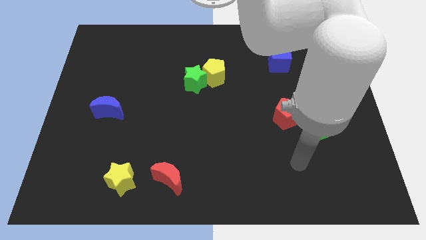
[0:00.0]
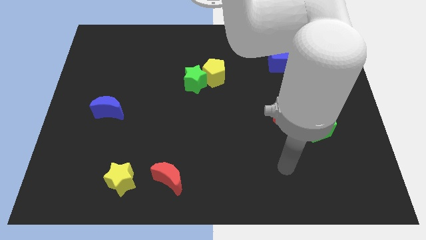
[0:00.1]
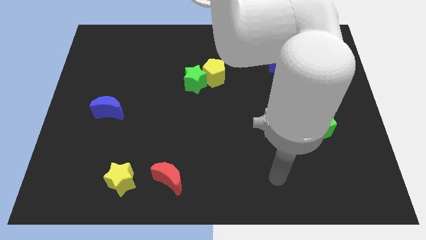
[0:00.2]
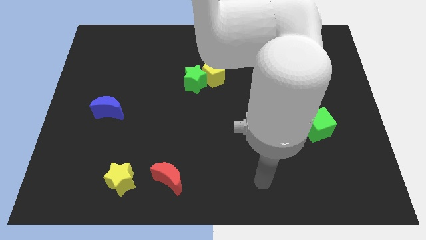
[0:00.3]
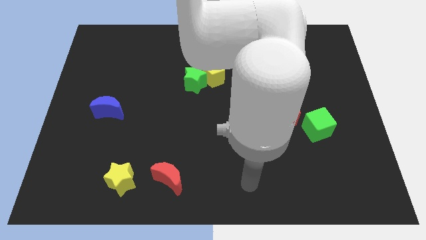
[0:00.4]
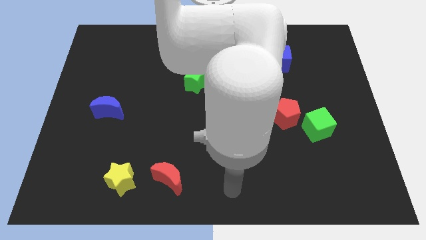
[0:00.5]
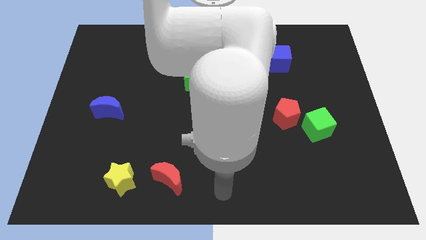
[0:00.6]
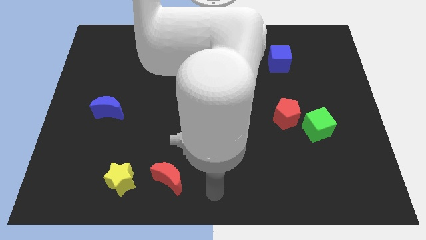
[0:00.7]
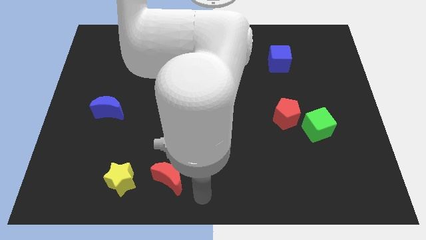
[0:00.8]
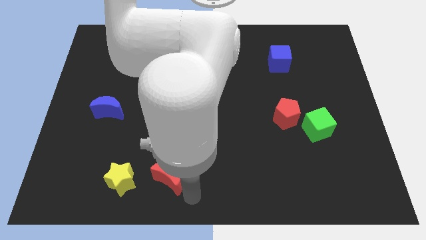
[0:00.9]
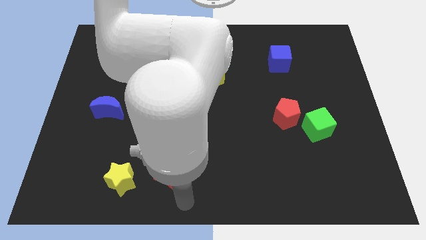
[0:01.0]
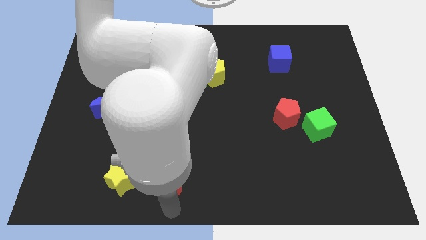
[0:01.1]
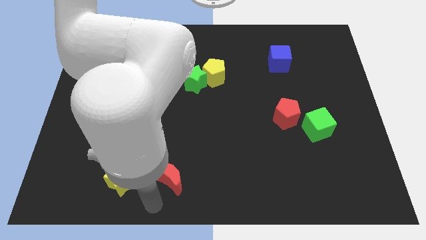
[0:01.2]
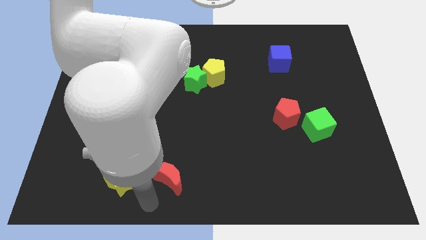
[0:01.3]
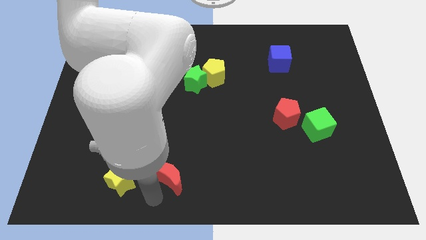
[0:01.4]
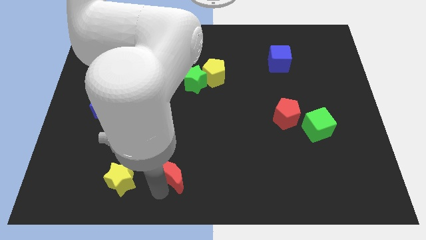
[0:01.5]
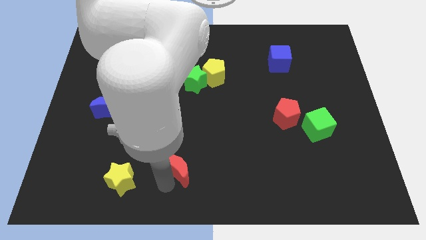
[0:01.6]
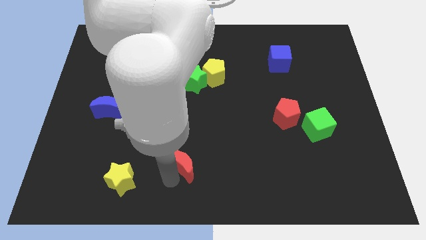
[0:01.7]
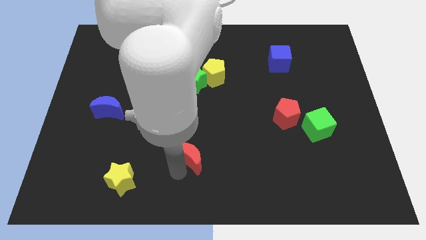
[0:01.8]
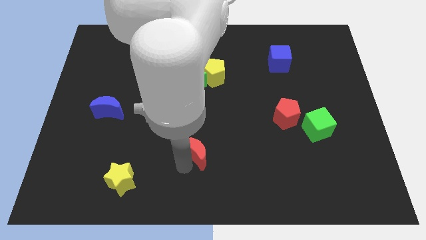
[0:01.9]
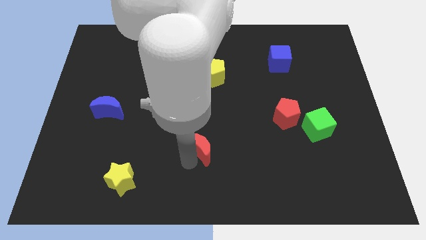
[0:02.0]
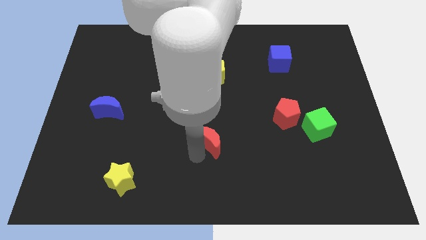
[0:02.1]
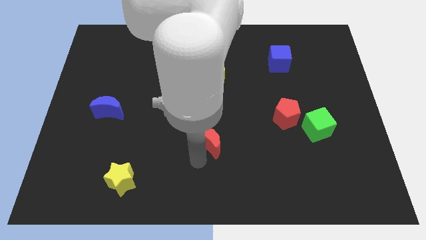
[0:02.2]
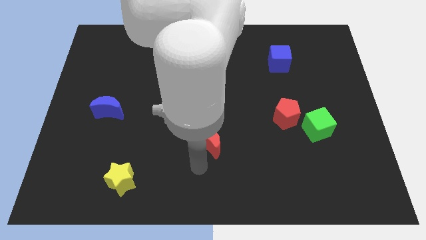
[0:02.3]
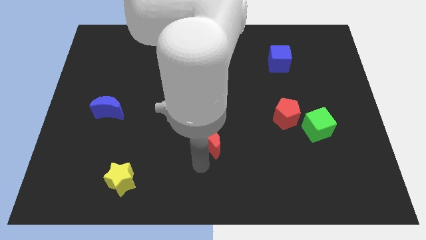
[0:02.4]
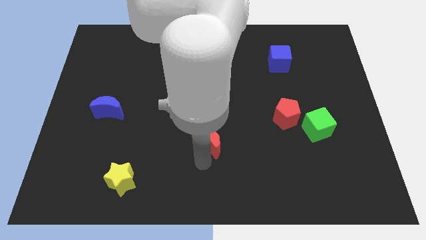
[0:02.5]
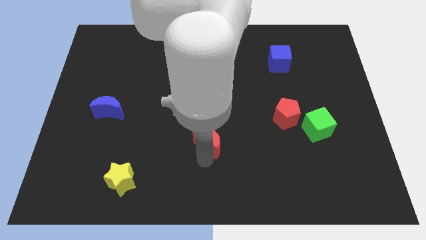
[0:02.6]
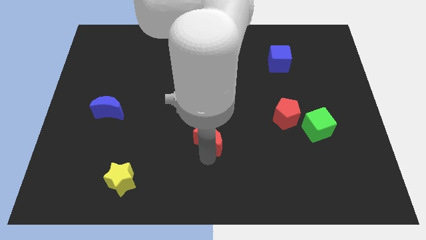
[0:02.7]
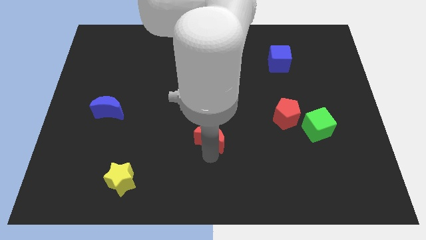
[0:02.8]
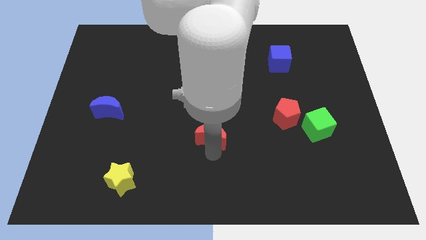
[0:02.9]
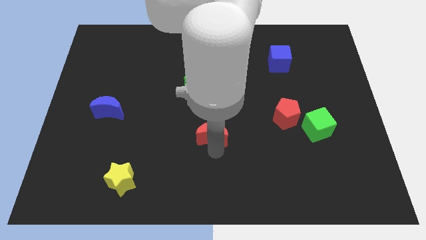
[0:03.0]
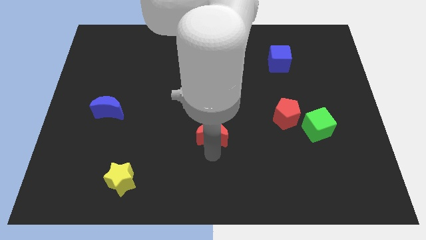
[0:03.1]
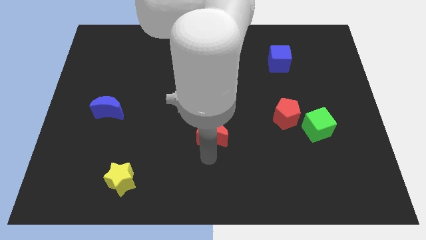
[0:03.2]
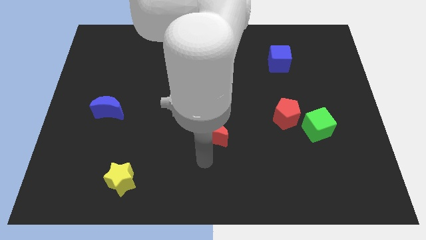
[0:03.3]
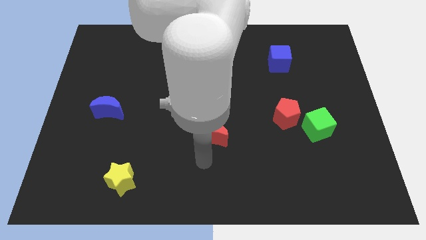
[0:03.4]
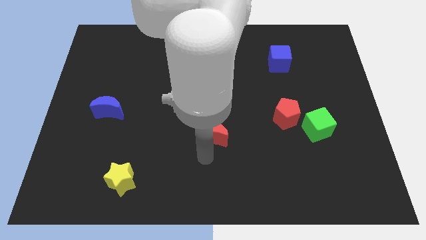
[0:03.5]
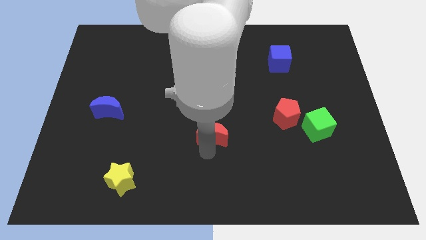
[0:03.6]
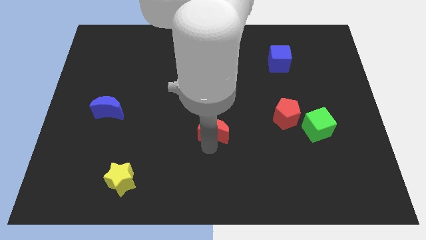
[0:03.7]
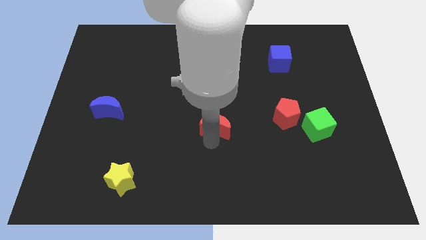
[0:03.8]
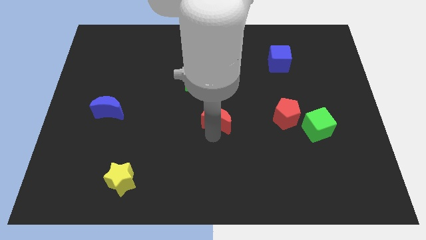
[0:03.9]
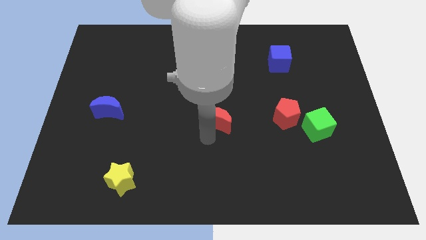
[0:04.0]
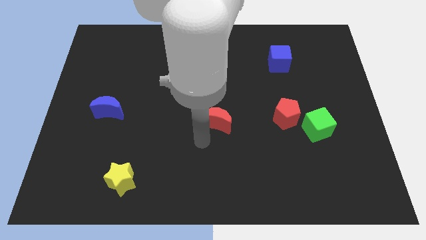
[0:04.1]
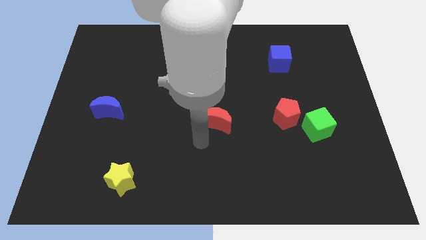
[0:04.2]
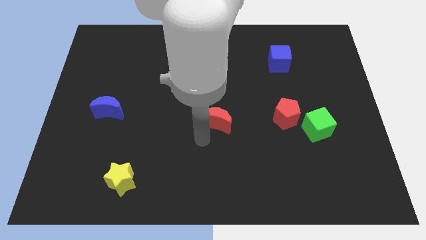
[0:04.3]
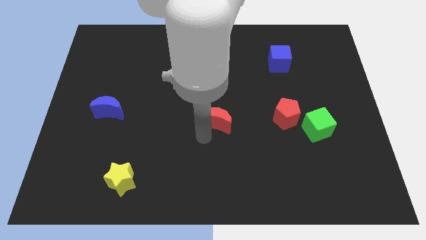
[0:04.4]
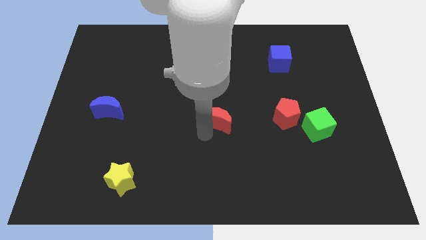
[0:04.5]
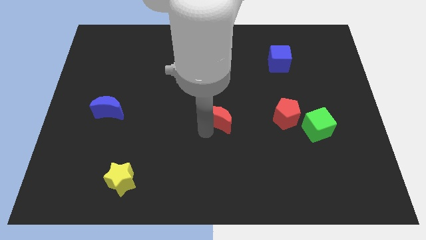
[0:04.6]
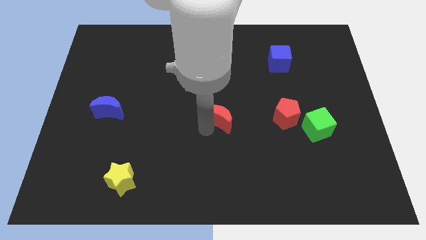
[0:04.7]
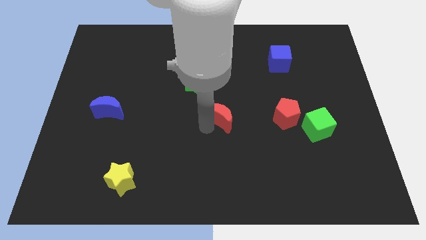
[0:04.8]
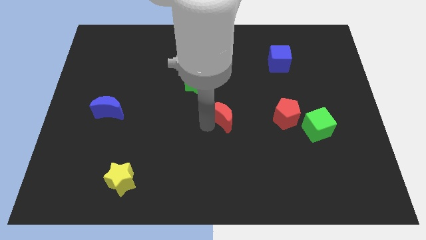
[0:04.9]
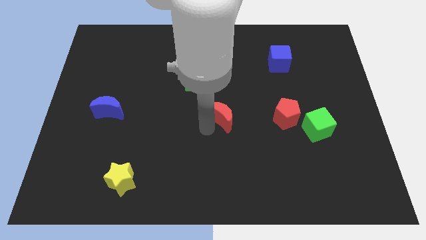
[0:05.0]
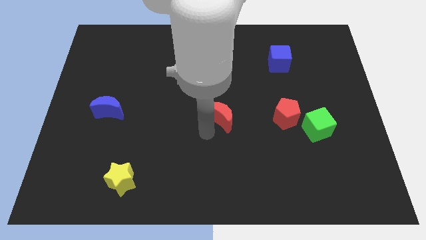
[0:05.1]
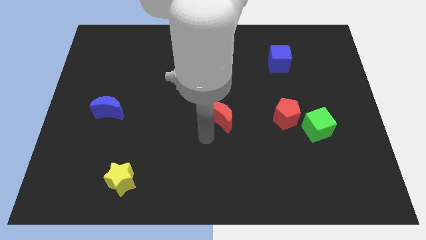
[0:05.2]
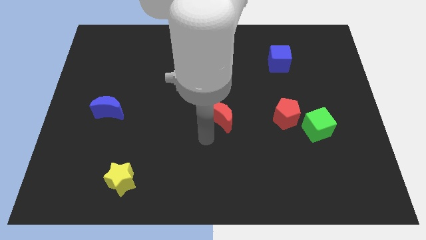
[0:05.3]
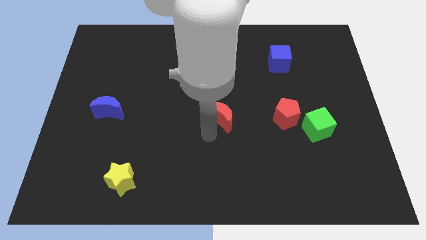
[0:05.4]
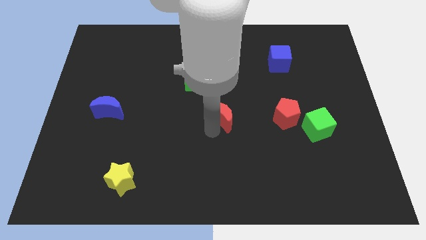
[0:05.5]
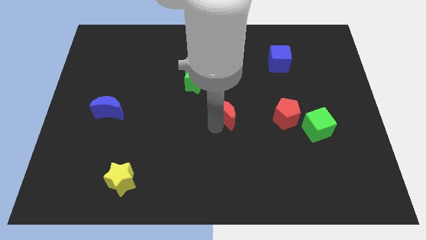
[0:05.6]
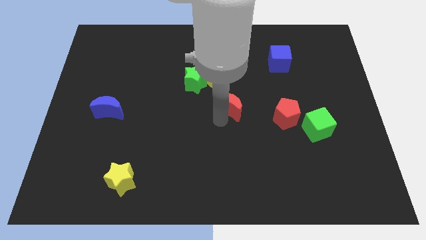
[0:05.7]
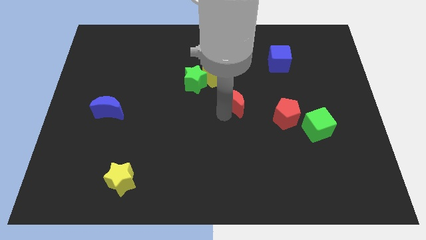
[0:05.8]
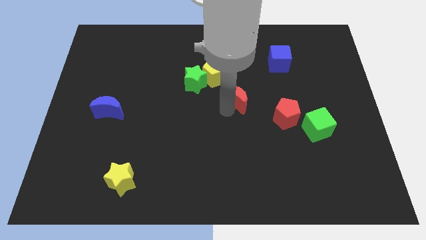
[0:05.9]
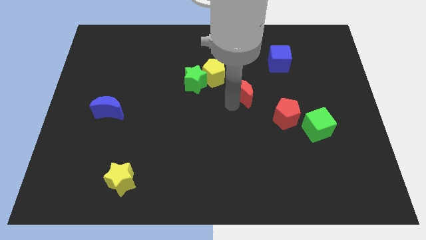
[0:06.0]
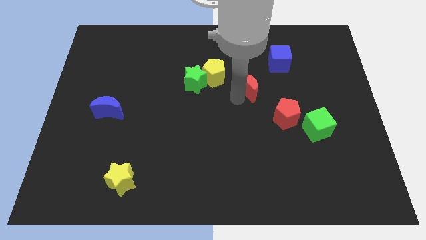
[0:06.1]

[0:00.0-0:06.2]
put the red moon diagonally down and to the left of the blue cube

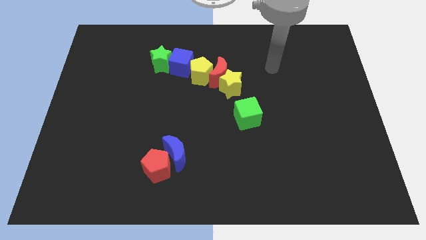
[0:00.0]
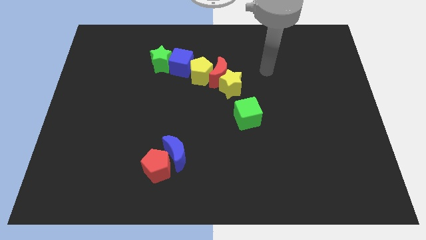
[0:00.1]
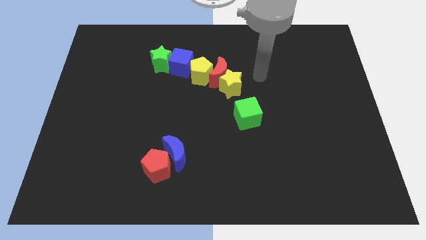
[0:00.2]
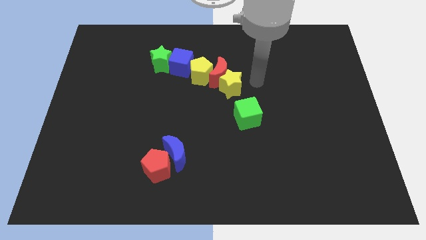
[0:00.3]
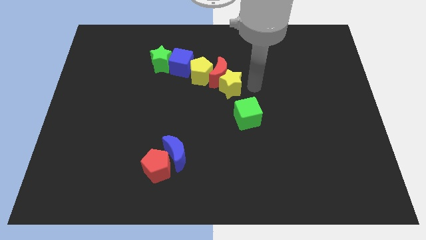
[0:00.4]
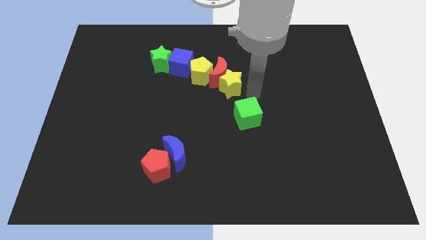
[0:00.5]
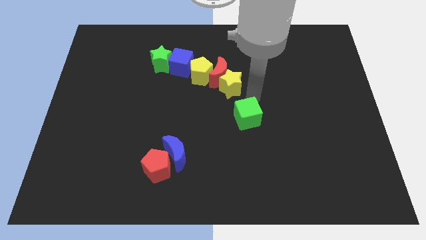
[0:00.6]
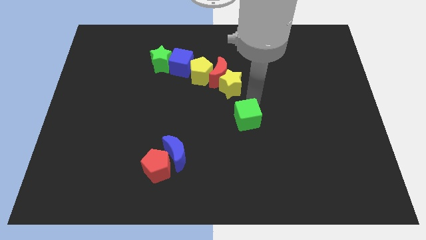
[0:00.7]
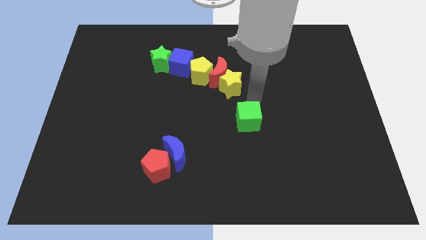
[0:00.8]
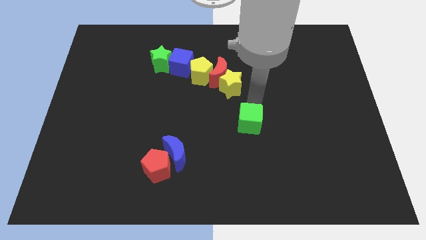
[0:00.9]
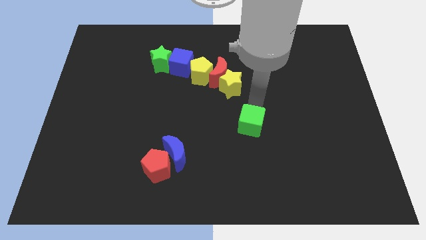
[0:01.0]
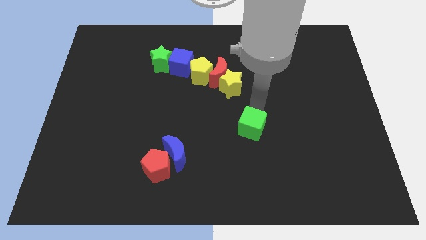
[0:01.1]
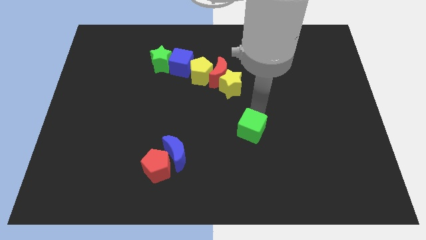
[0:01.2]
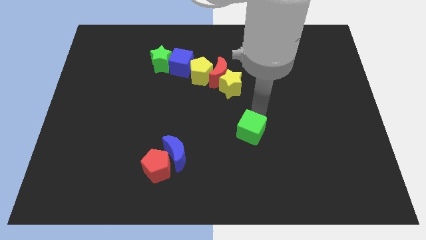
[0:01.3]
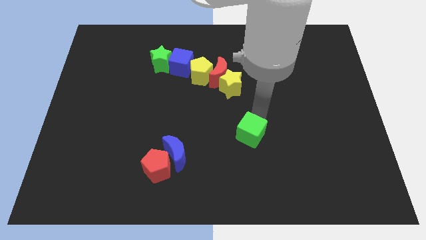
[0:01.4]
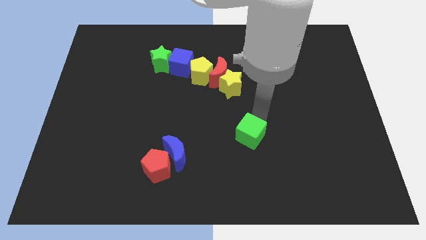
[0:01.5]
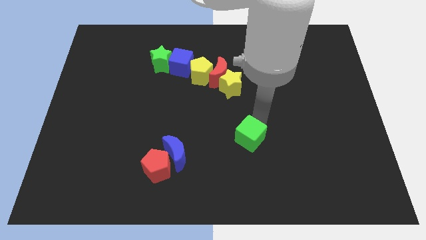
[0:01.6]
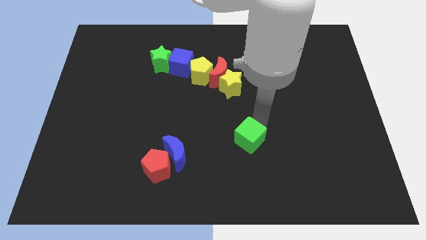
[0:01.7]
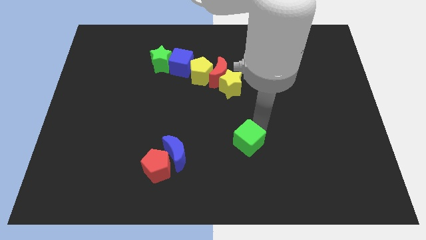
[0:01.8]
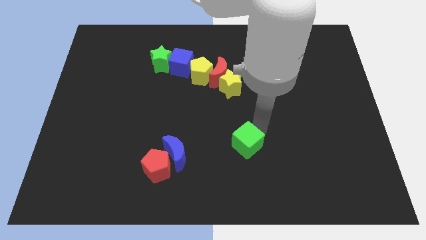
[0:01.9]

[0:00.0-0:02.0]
push the green cube right of the blue moon
